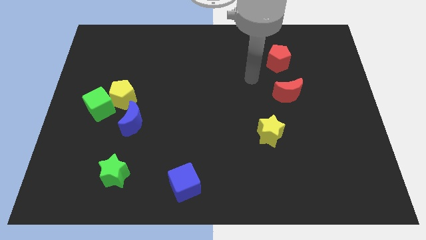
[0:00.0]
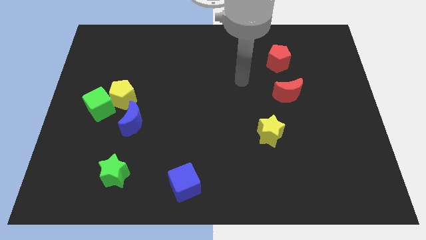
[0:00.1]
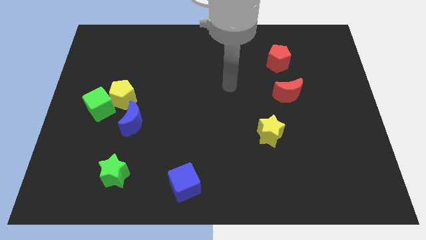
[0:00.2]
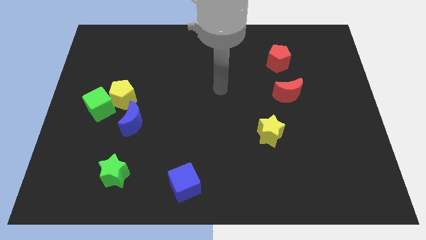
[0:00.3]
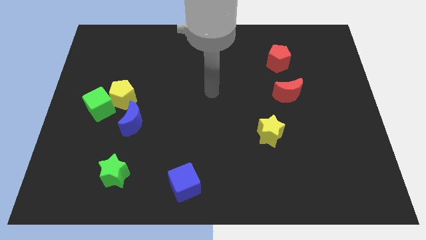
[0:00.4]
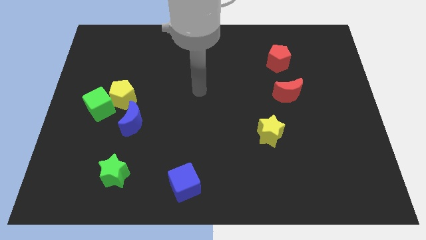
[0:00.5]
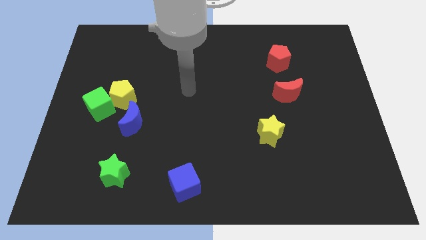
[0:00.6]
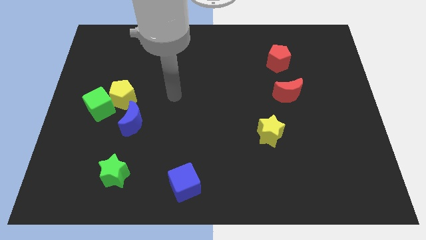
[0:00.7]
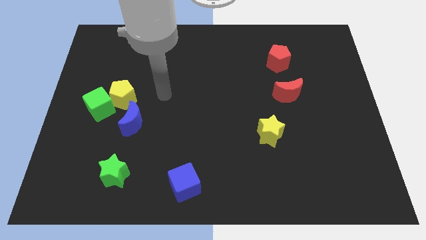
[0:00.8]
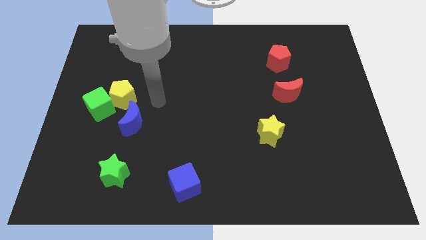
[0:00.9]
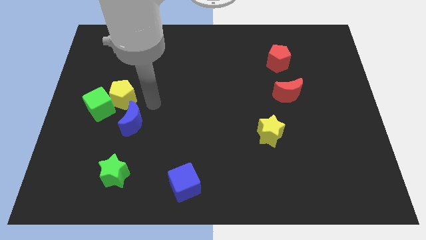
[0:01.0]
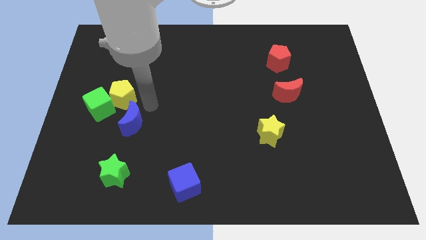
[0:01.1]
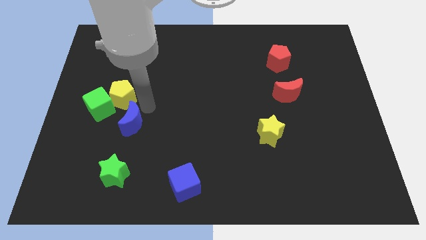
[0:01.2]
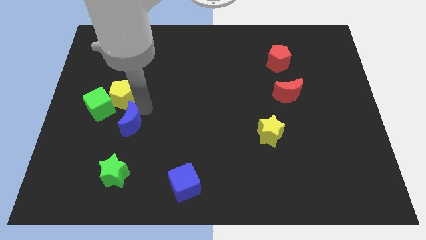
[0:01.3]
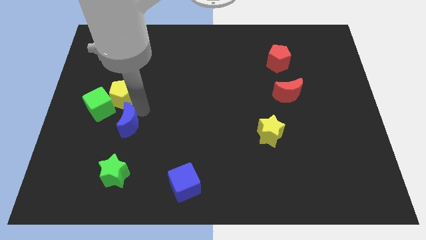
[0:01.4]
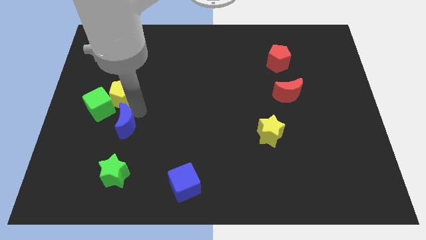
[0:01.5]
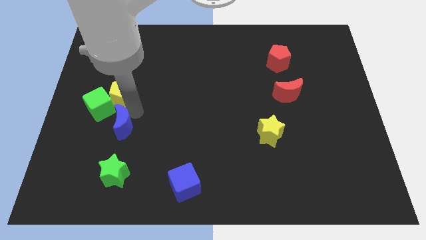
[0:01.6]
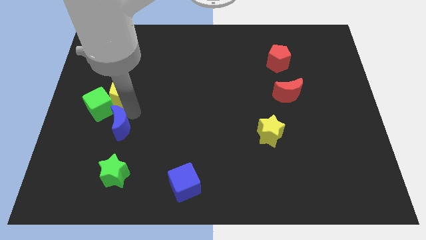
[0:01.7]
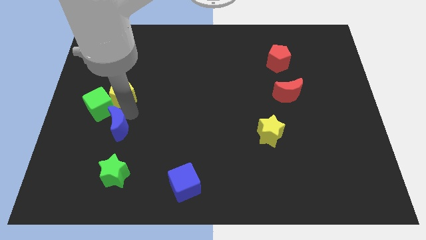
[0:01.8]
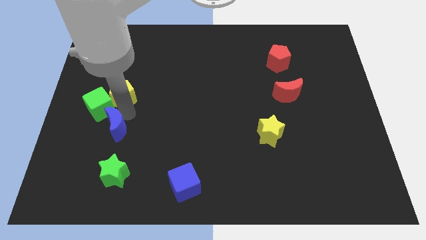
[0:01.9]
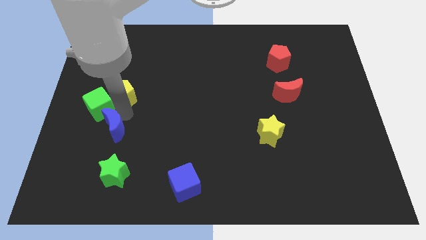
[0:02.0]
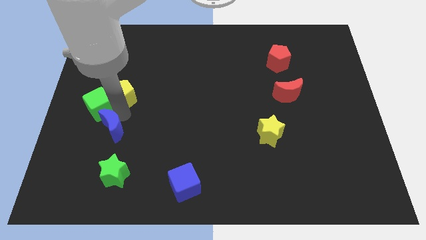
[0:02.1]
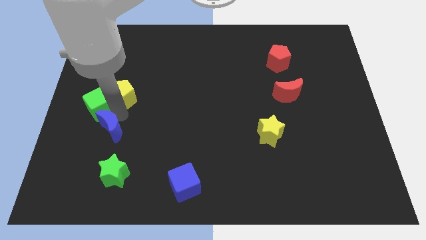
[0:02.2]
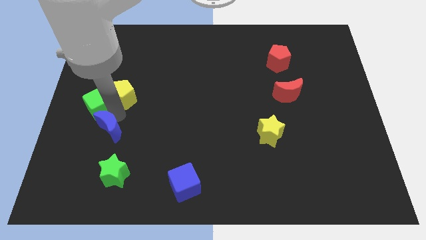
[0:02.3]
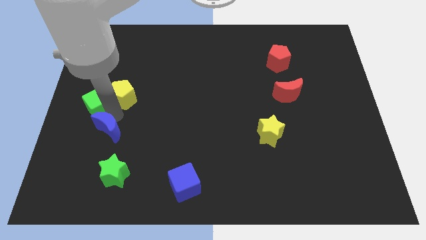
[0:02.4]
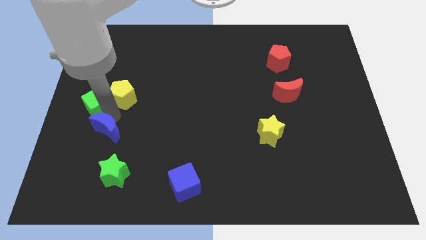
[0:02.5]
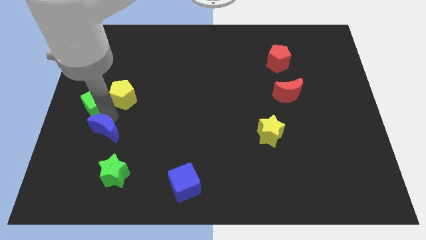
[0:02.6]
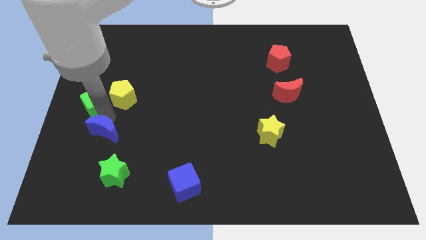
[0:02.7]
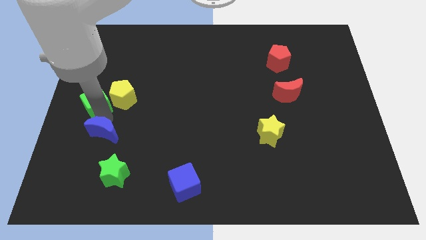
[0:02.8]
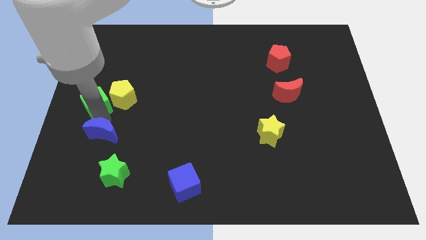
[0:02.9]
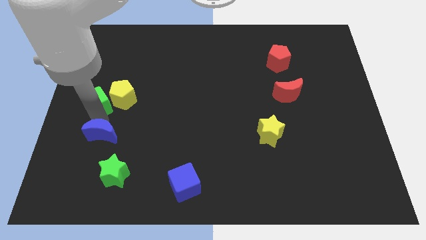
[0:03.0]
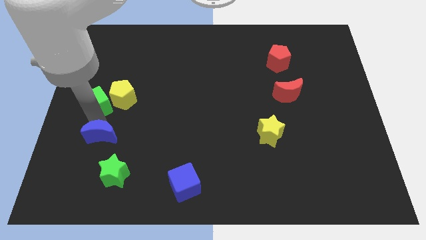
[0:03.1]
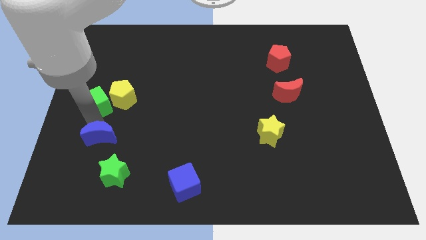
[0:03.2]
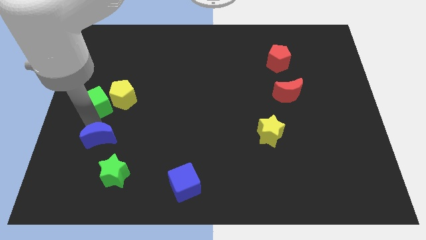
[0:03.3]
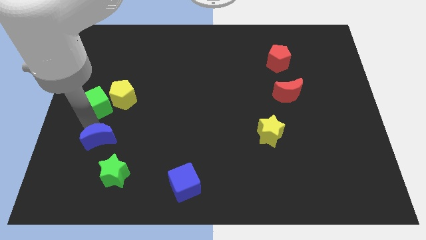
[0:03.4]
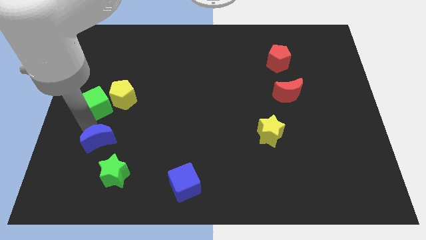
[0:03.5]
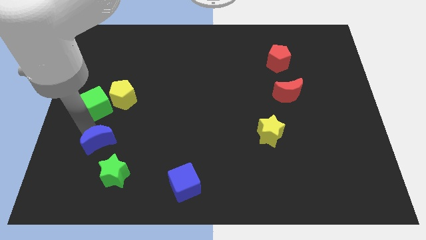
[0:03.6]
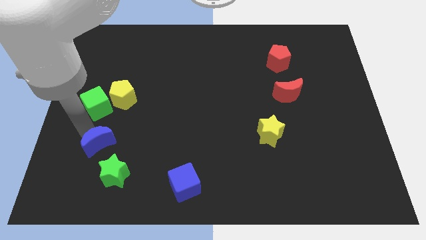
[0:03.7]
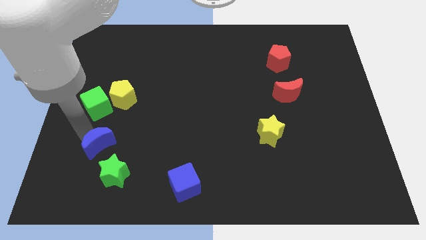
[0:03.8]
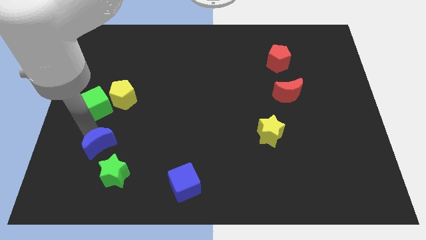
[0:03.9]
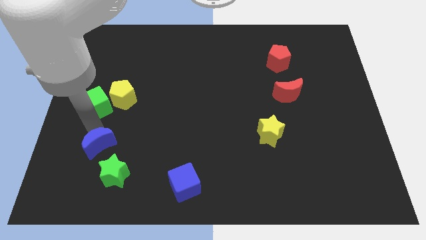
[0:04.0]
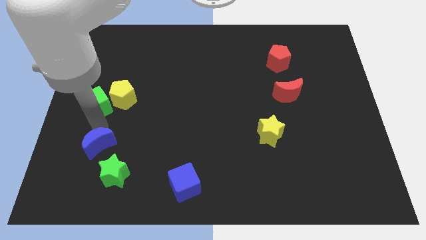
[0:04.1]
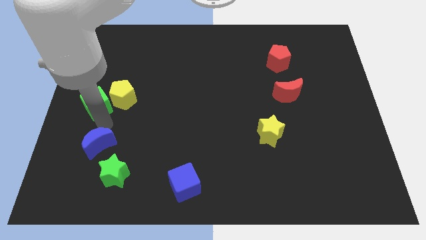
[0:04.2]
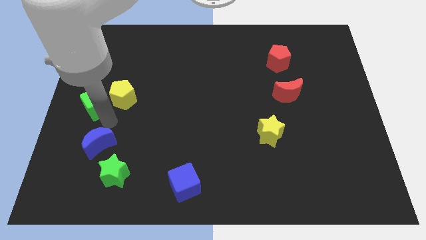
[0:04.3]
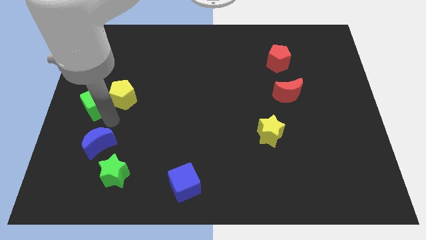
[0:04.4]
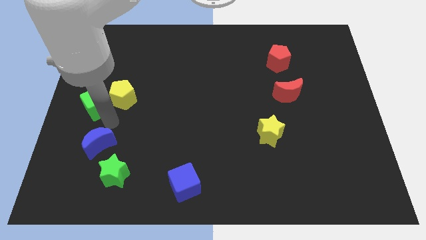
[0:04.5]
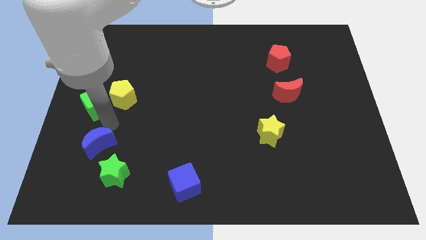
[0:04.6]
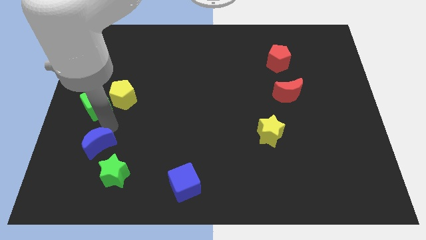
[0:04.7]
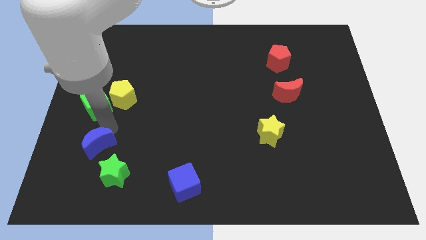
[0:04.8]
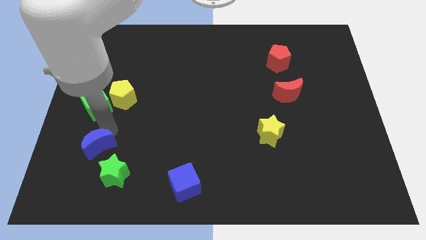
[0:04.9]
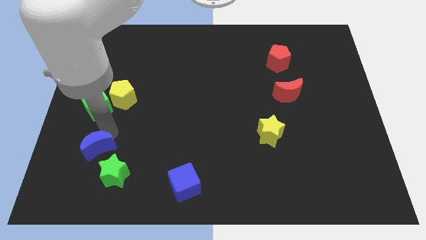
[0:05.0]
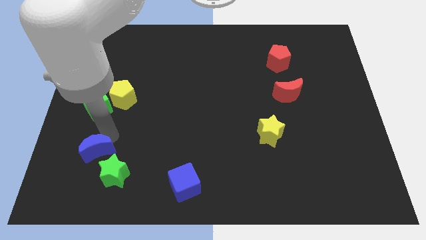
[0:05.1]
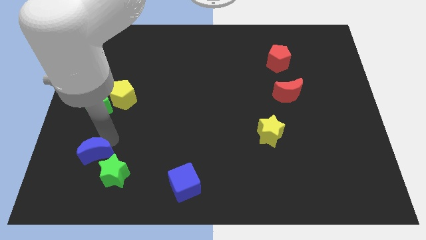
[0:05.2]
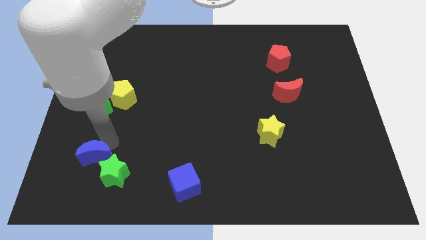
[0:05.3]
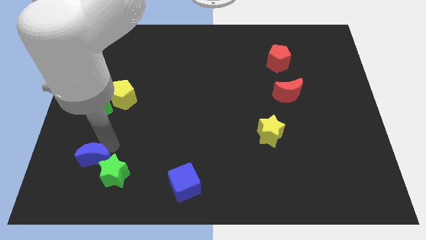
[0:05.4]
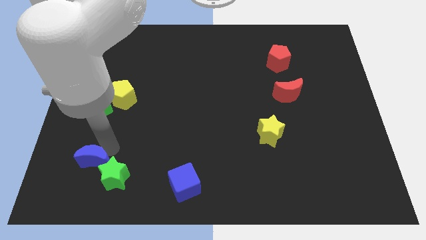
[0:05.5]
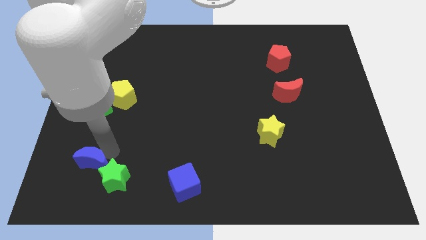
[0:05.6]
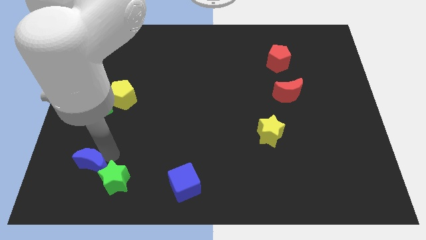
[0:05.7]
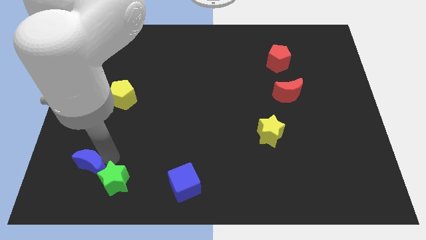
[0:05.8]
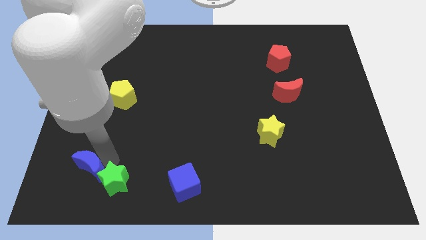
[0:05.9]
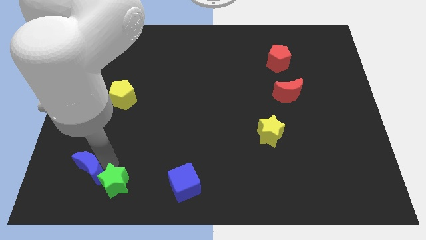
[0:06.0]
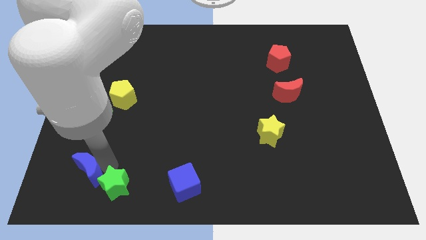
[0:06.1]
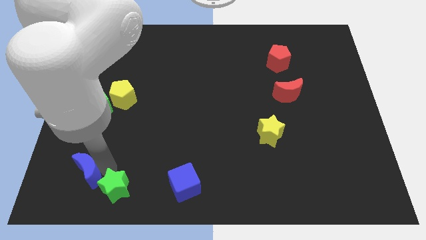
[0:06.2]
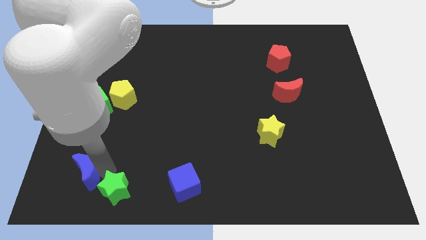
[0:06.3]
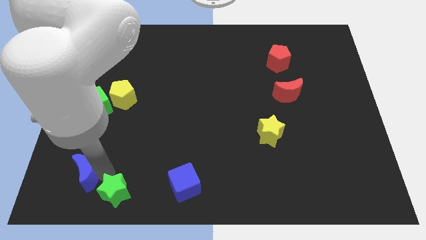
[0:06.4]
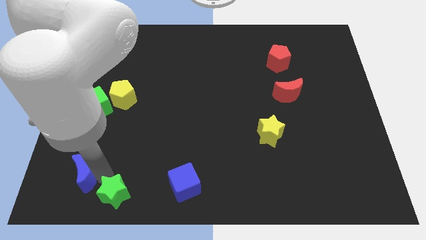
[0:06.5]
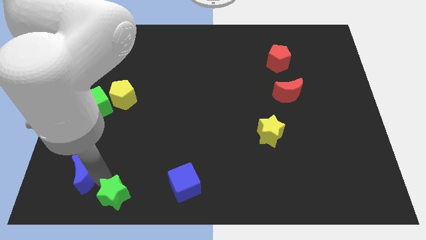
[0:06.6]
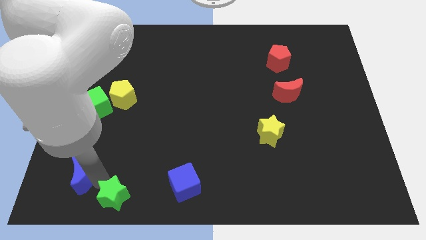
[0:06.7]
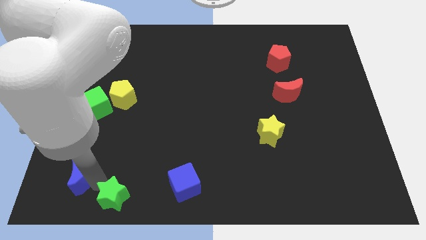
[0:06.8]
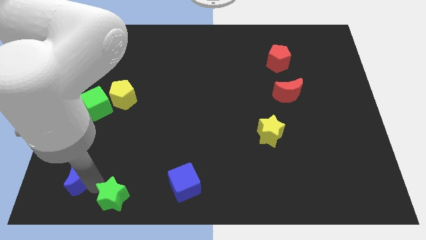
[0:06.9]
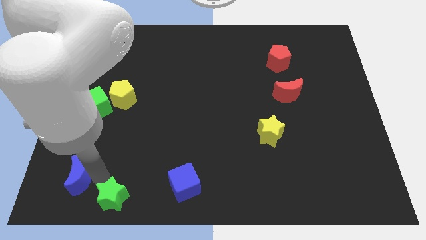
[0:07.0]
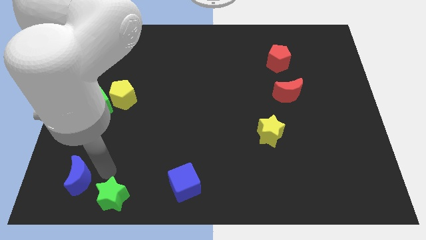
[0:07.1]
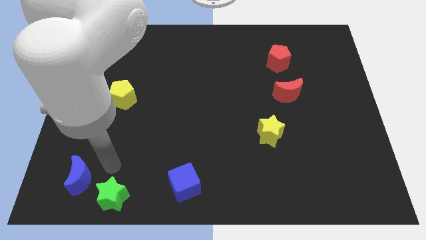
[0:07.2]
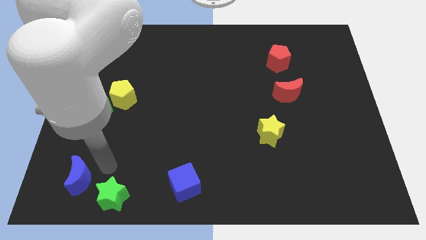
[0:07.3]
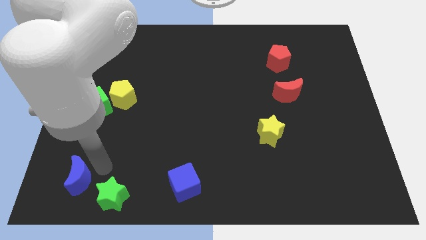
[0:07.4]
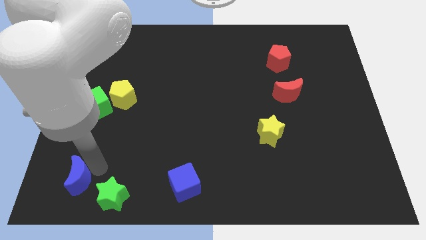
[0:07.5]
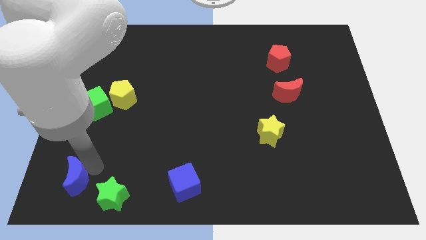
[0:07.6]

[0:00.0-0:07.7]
slide the blue moon to the lower left corner
